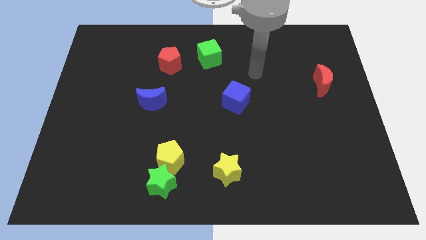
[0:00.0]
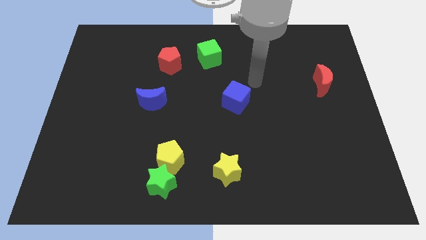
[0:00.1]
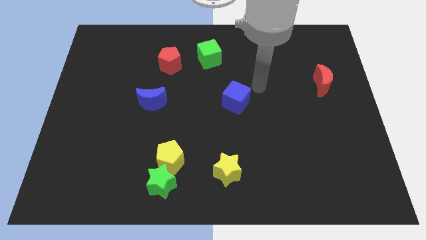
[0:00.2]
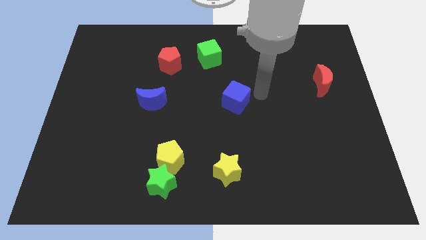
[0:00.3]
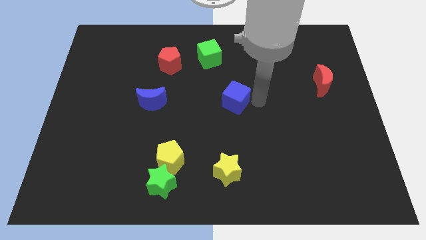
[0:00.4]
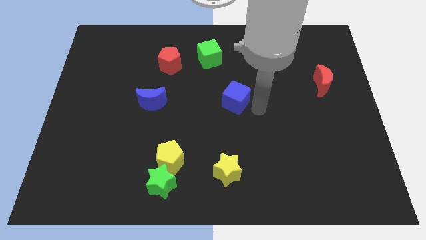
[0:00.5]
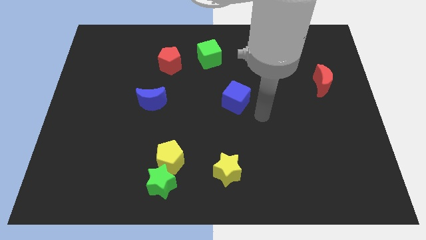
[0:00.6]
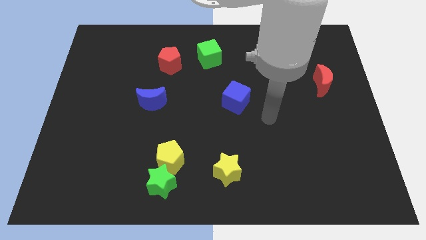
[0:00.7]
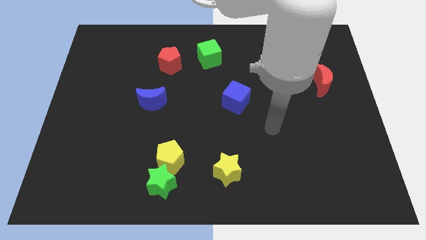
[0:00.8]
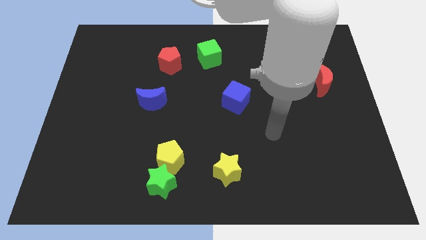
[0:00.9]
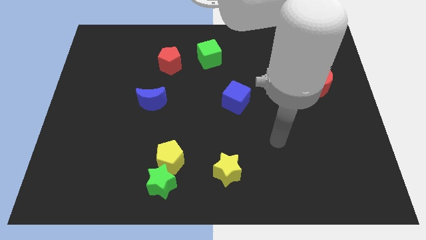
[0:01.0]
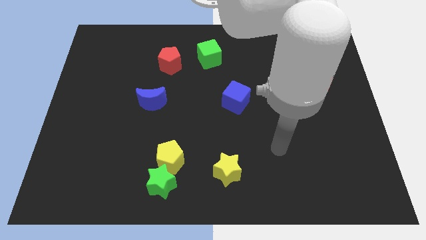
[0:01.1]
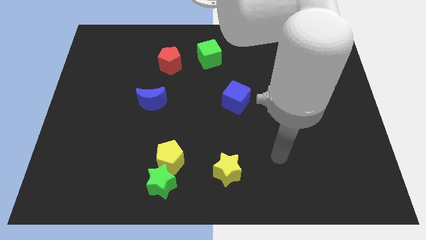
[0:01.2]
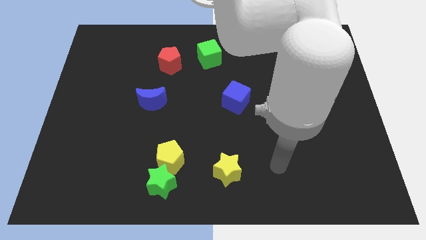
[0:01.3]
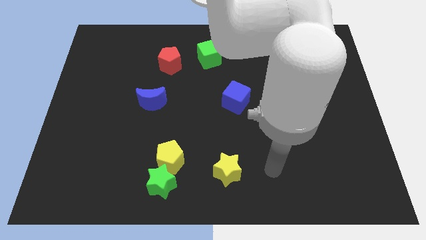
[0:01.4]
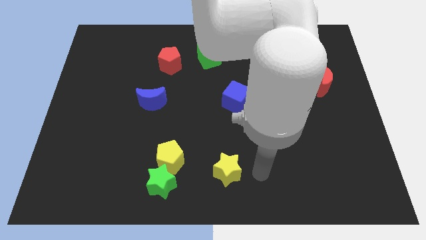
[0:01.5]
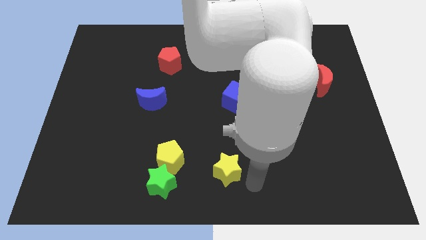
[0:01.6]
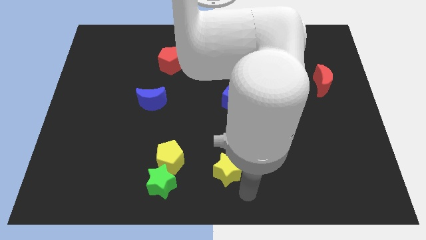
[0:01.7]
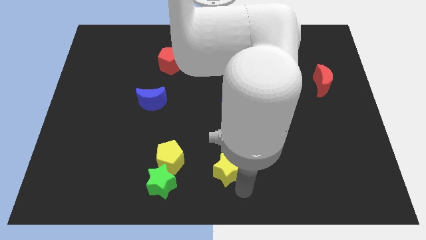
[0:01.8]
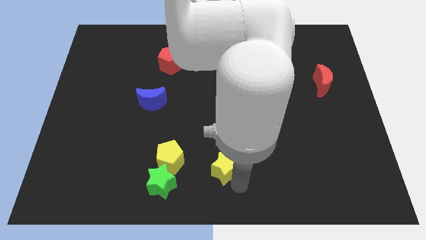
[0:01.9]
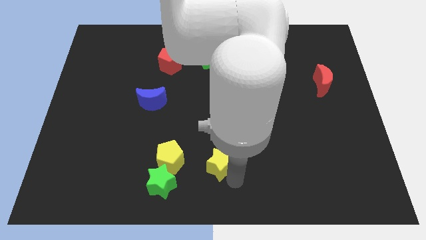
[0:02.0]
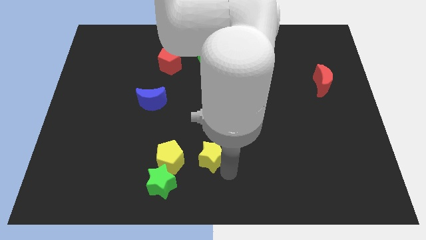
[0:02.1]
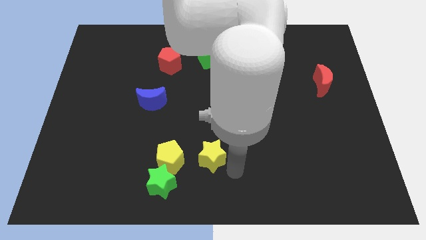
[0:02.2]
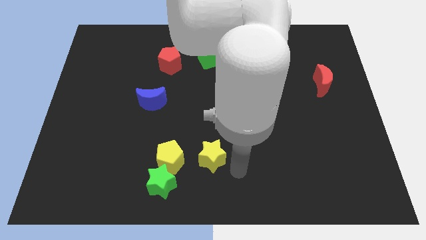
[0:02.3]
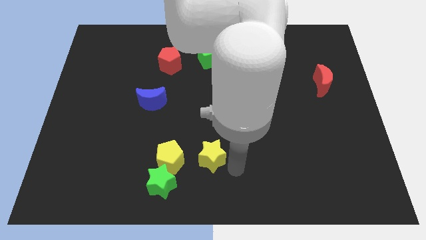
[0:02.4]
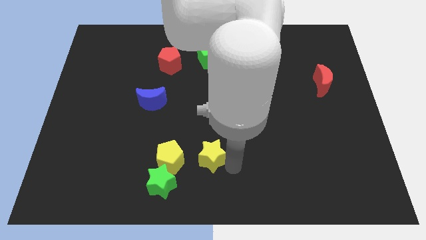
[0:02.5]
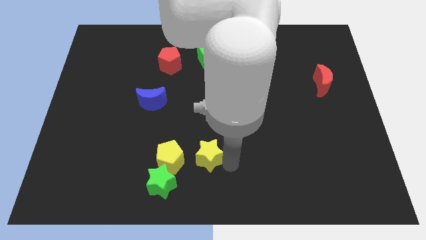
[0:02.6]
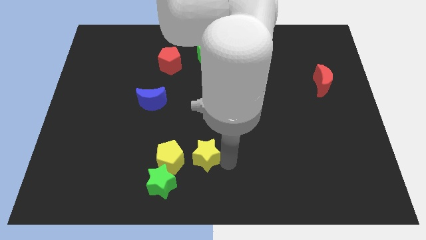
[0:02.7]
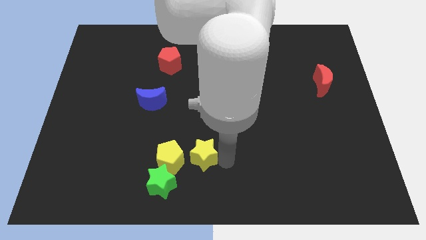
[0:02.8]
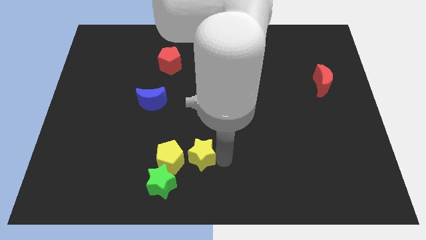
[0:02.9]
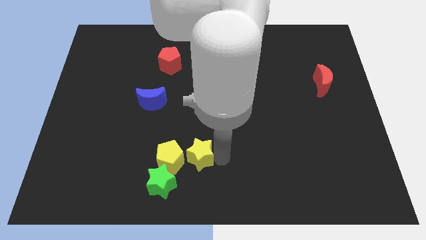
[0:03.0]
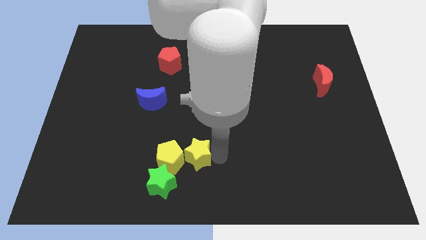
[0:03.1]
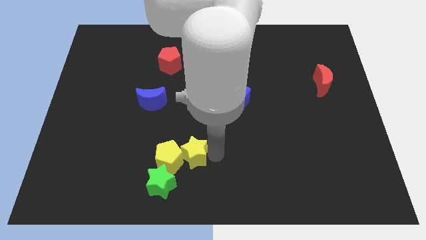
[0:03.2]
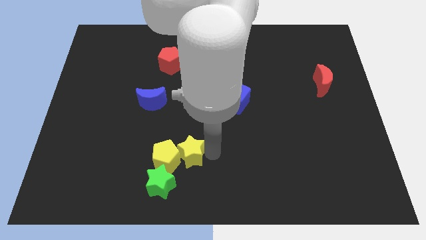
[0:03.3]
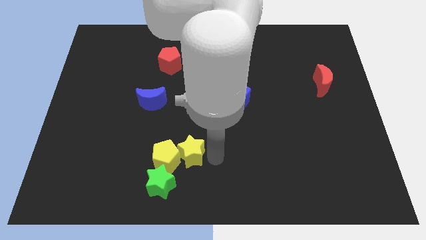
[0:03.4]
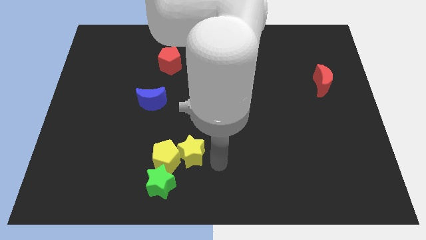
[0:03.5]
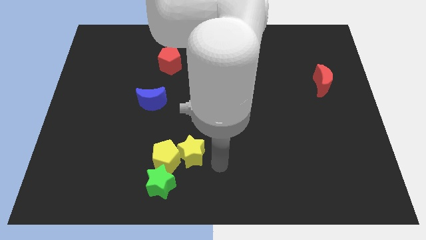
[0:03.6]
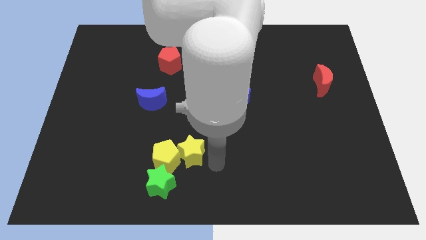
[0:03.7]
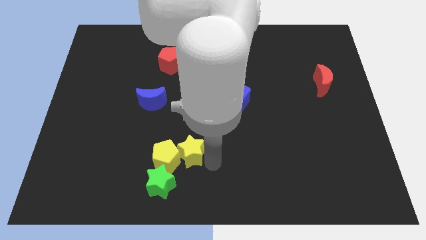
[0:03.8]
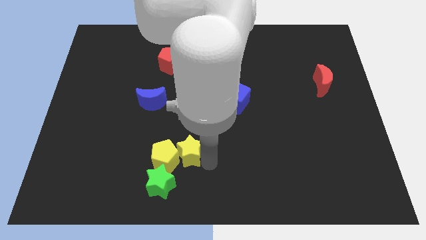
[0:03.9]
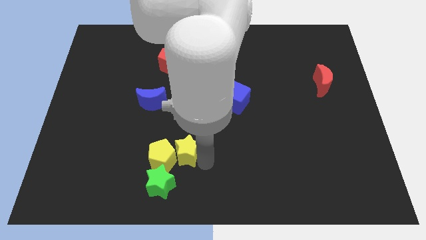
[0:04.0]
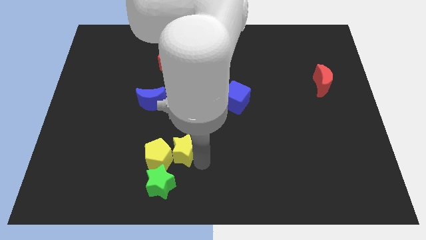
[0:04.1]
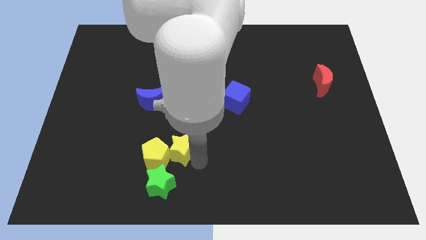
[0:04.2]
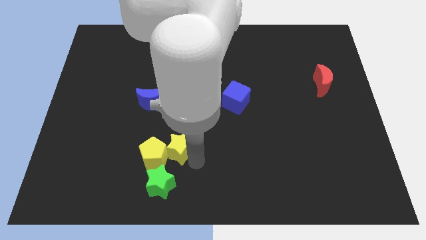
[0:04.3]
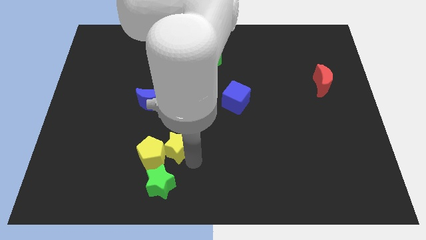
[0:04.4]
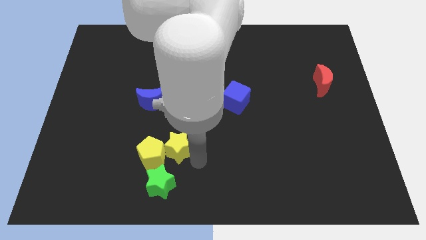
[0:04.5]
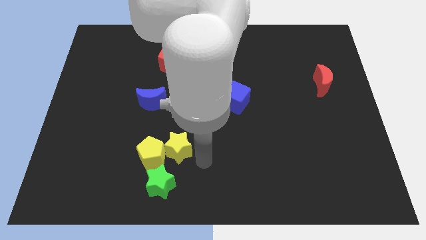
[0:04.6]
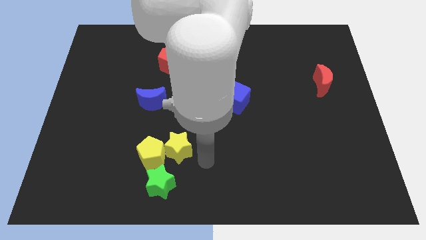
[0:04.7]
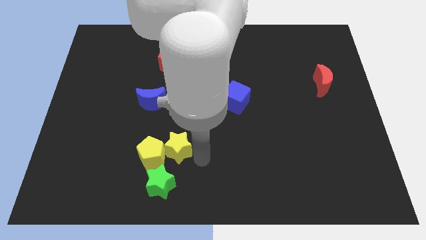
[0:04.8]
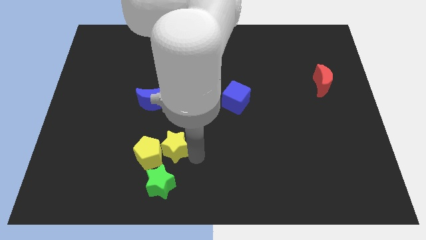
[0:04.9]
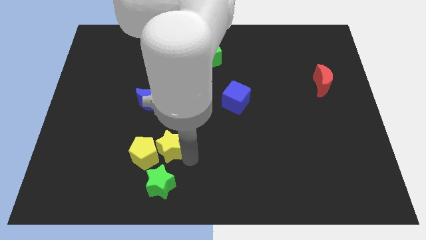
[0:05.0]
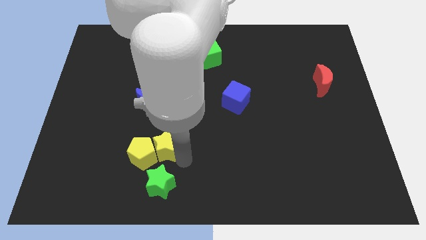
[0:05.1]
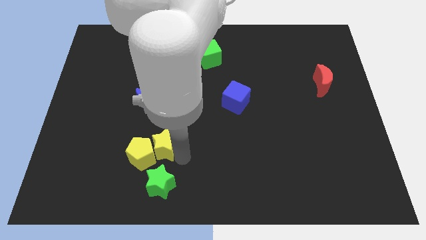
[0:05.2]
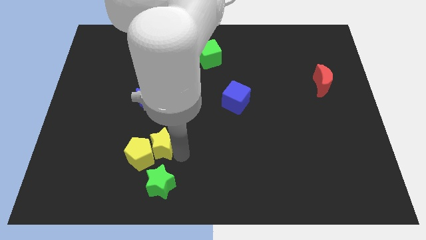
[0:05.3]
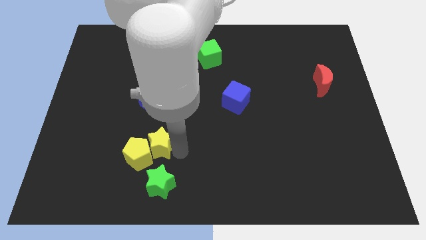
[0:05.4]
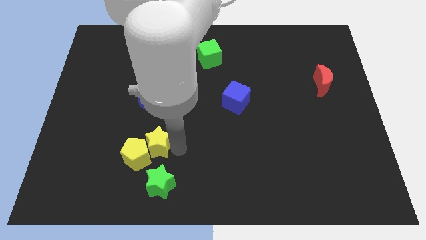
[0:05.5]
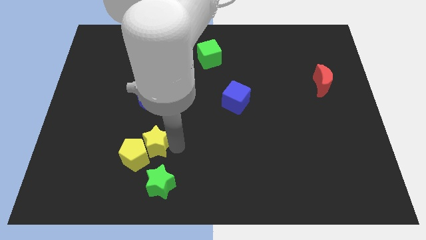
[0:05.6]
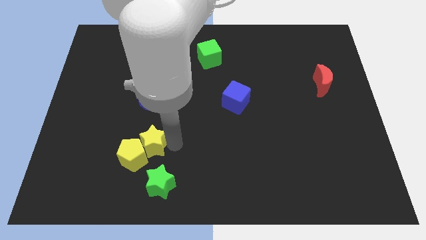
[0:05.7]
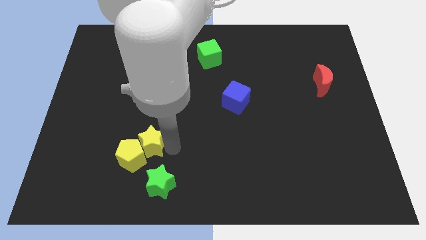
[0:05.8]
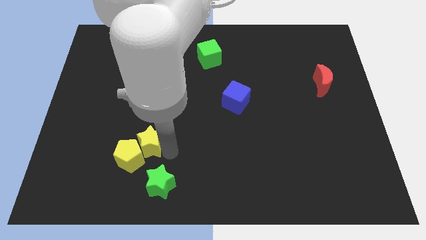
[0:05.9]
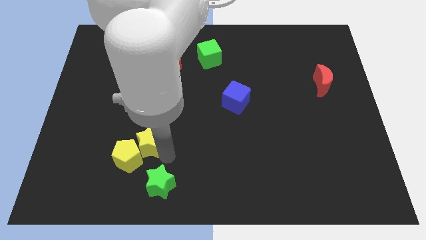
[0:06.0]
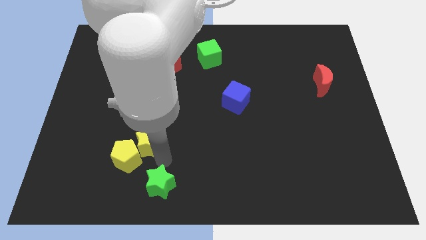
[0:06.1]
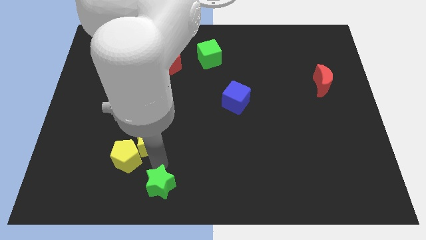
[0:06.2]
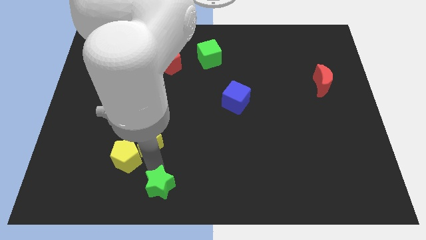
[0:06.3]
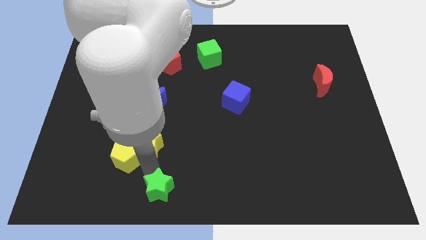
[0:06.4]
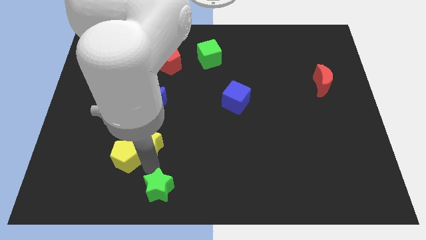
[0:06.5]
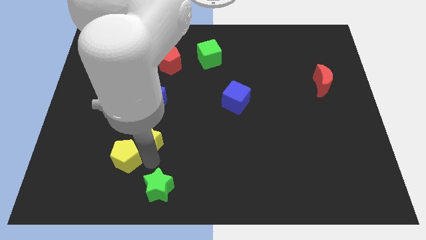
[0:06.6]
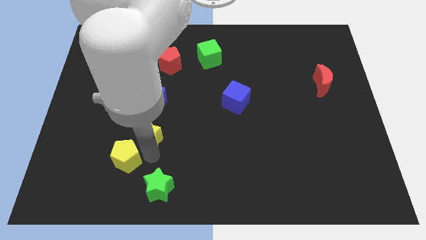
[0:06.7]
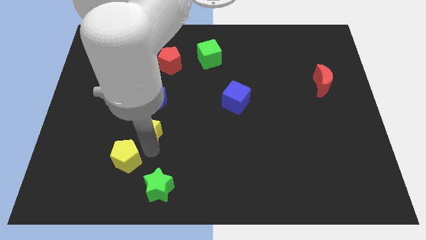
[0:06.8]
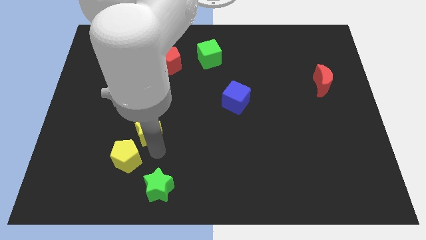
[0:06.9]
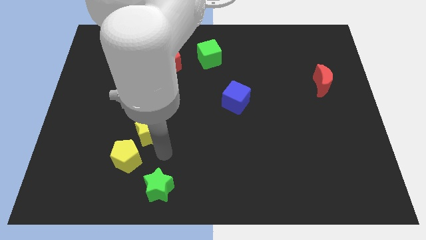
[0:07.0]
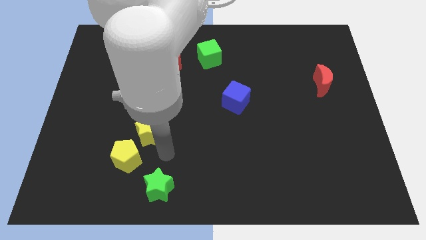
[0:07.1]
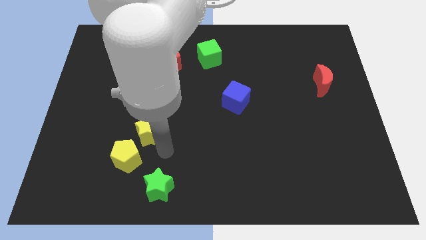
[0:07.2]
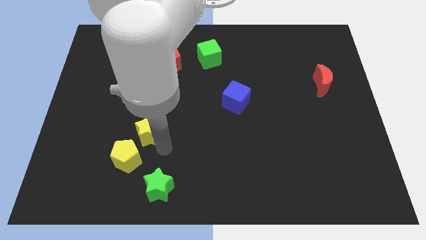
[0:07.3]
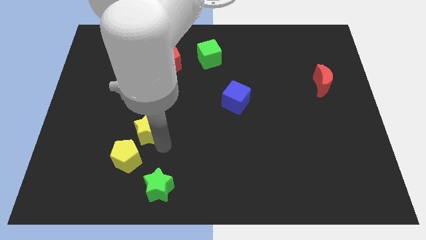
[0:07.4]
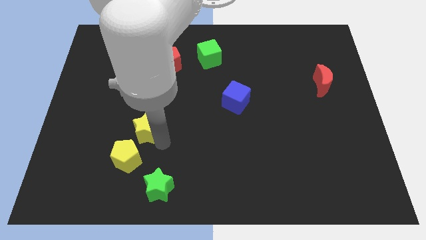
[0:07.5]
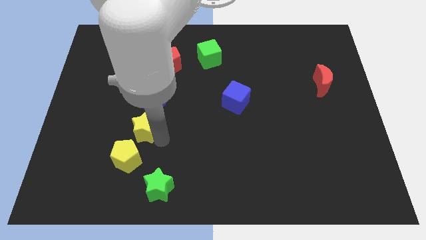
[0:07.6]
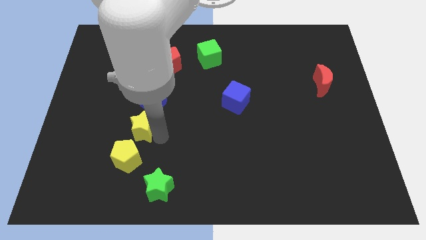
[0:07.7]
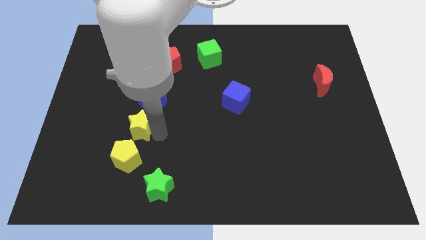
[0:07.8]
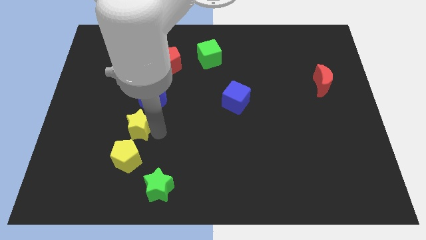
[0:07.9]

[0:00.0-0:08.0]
slide the yellow star diagonally upwards and to the left

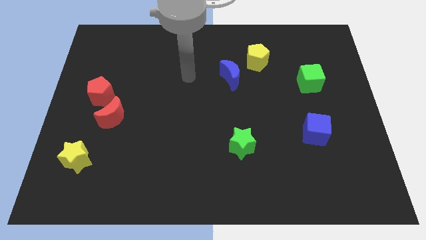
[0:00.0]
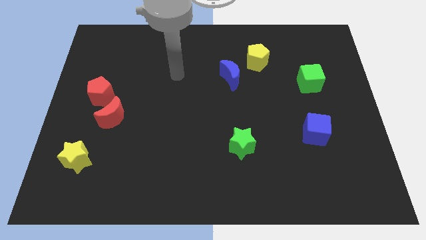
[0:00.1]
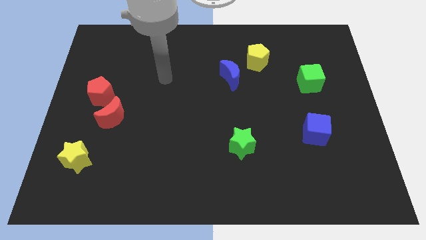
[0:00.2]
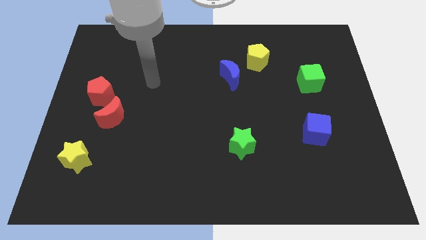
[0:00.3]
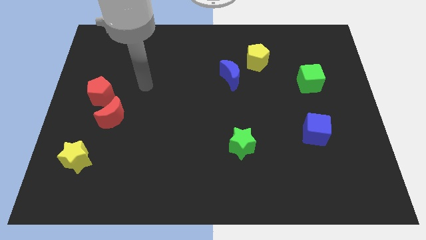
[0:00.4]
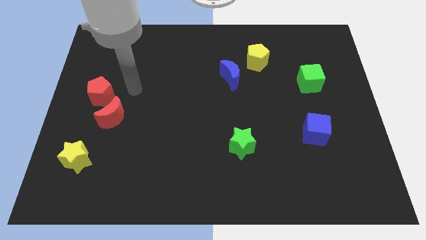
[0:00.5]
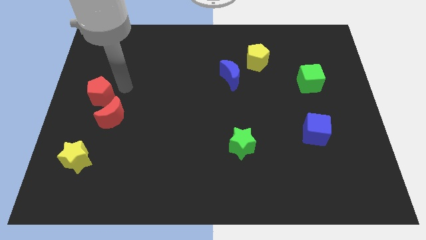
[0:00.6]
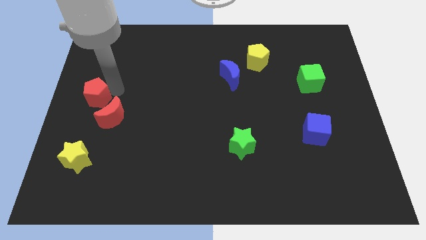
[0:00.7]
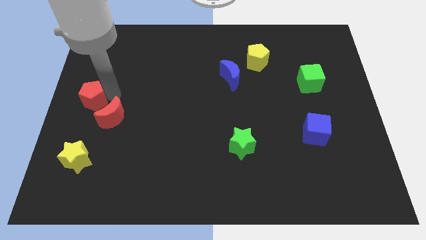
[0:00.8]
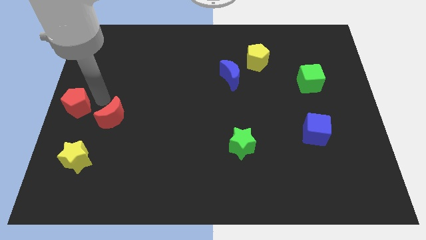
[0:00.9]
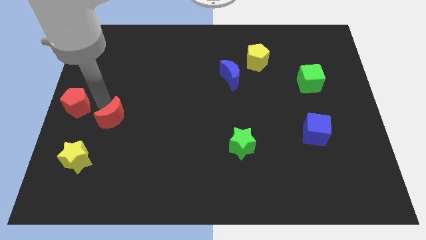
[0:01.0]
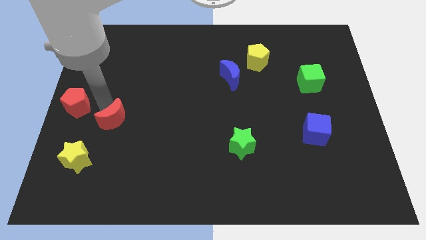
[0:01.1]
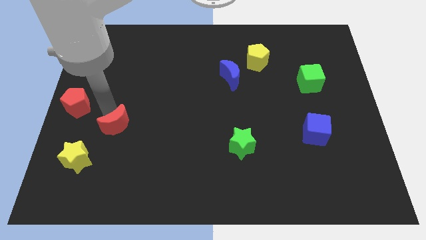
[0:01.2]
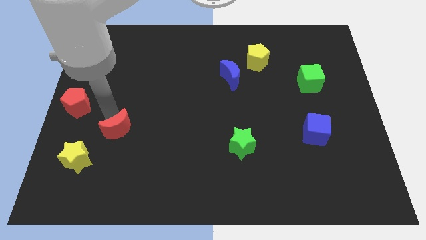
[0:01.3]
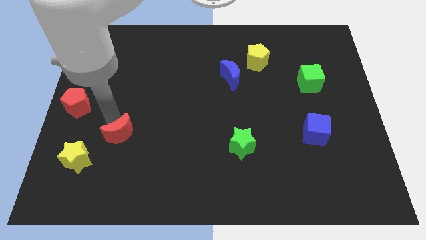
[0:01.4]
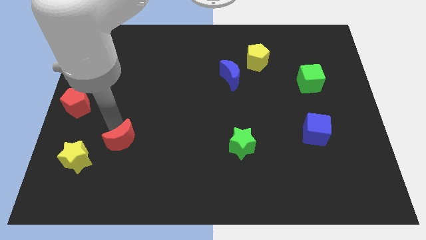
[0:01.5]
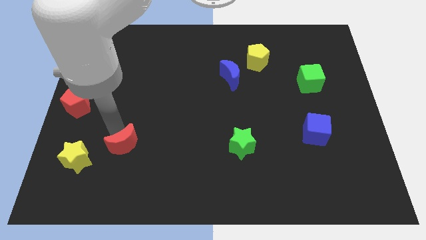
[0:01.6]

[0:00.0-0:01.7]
slightly push the red moon diagonally downwards and to the right
